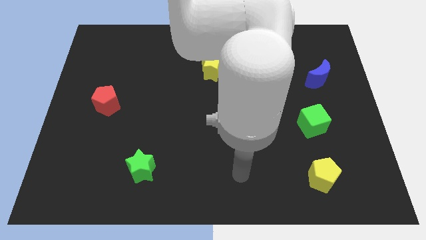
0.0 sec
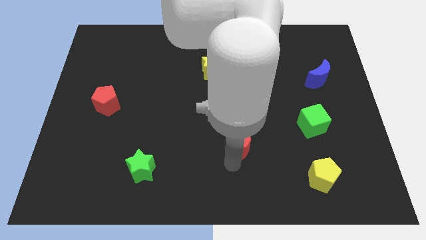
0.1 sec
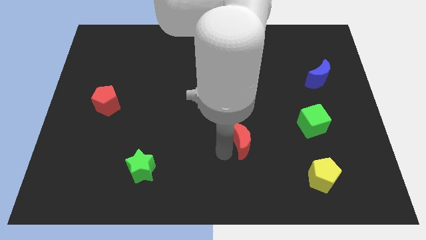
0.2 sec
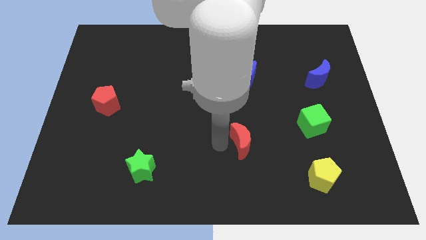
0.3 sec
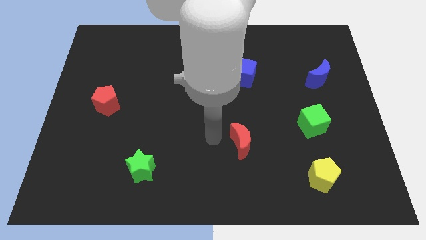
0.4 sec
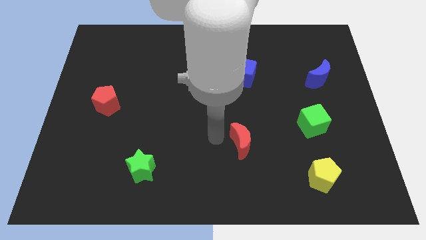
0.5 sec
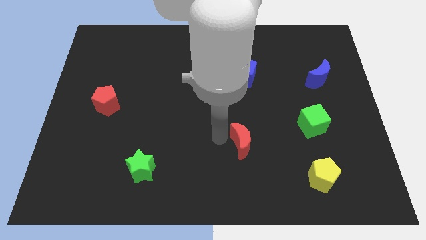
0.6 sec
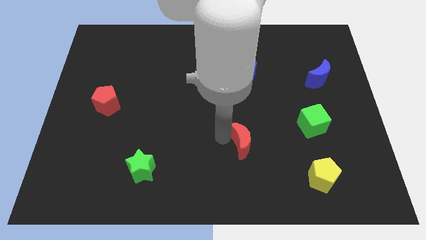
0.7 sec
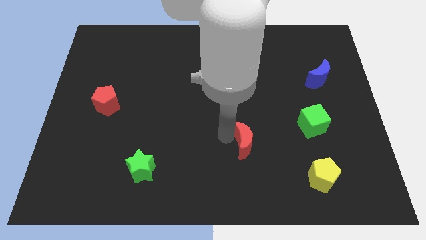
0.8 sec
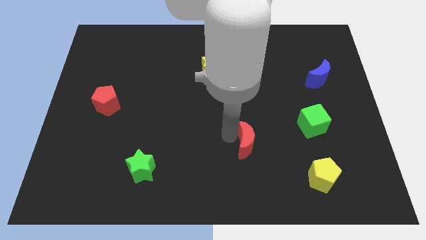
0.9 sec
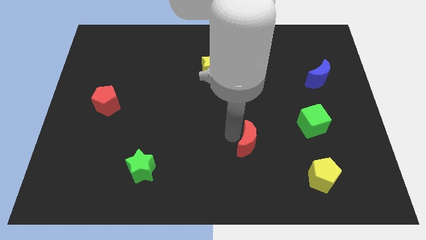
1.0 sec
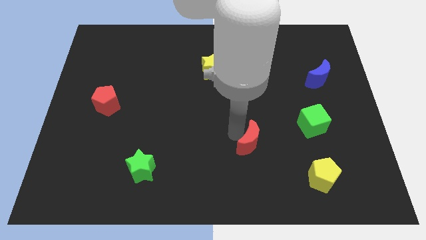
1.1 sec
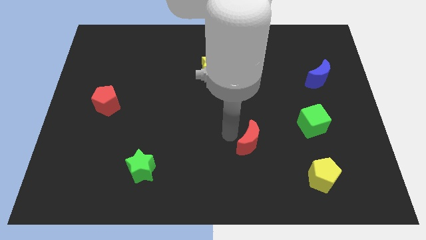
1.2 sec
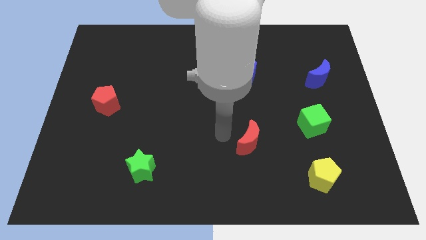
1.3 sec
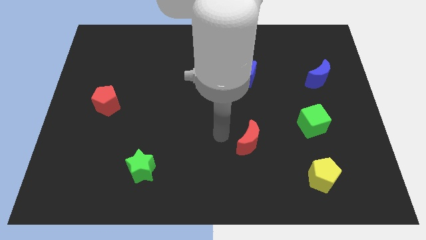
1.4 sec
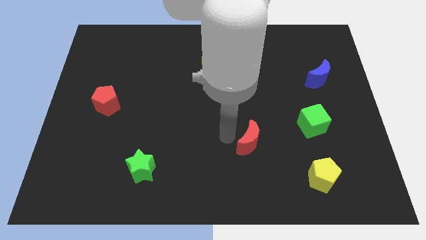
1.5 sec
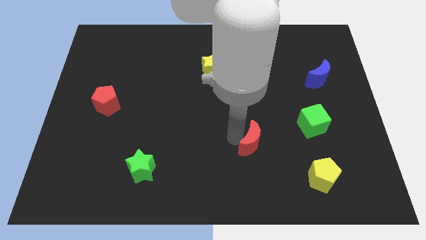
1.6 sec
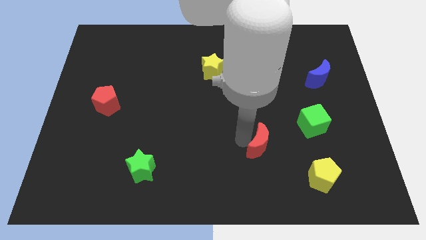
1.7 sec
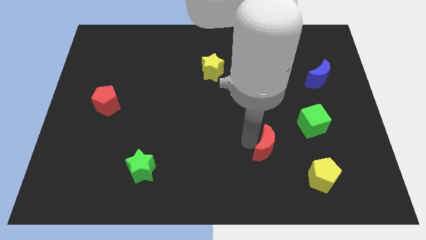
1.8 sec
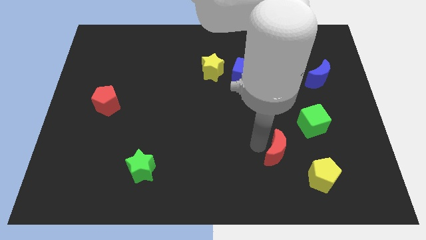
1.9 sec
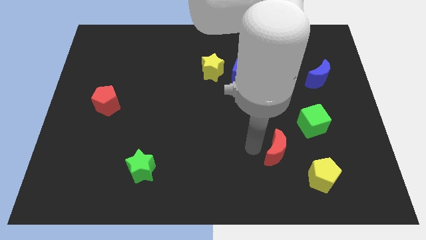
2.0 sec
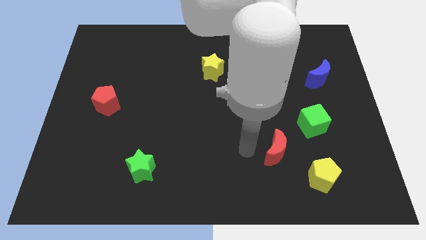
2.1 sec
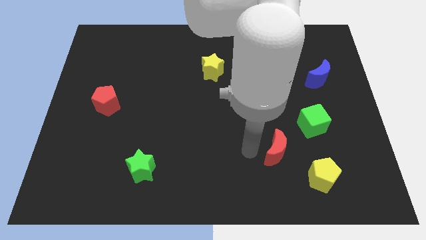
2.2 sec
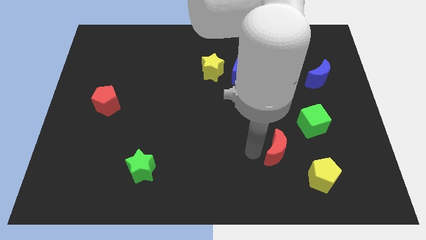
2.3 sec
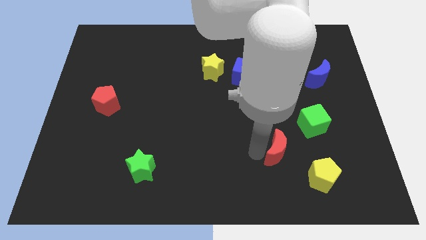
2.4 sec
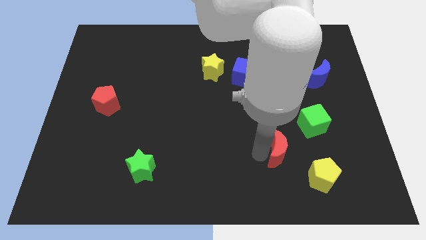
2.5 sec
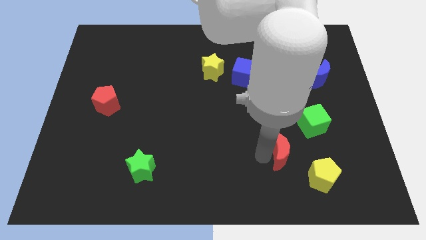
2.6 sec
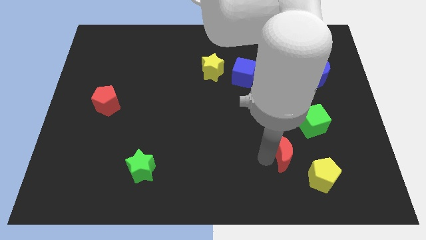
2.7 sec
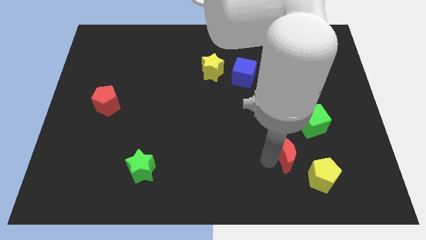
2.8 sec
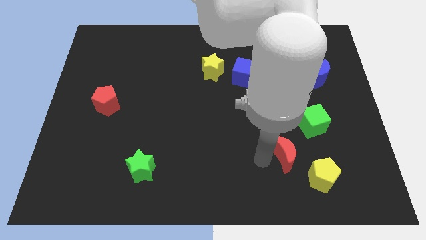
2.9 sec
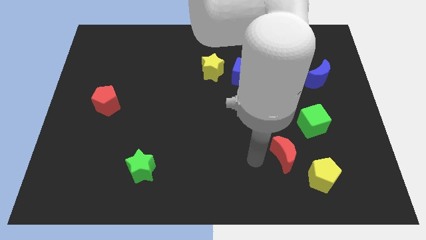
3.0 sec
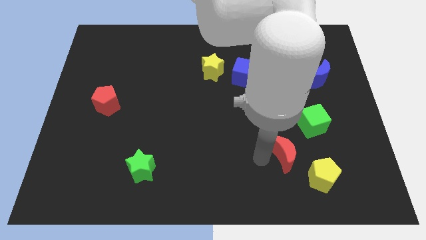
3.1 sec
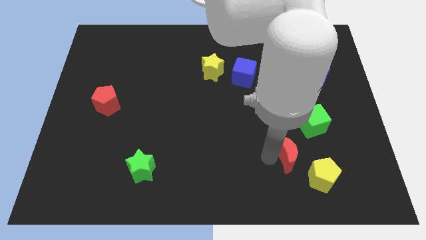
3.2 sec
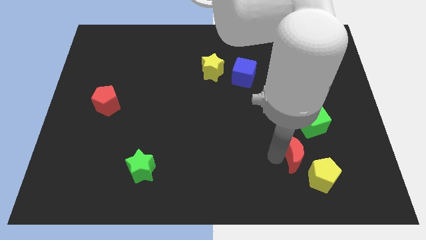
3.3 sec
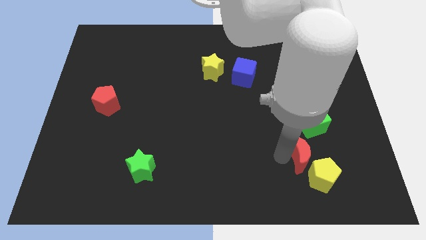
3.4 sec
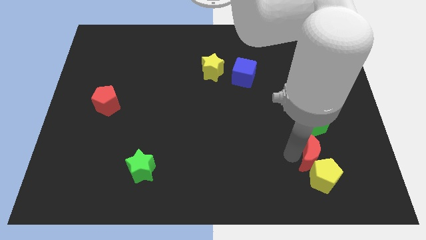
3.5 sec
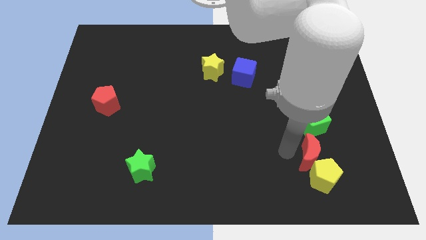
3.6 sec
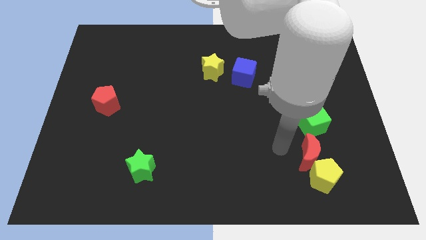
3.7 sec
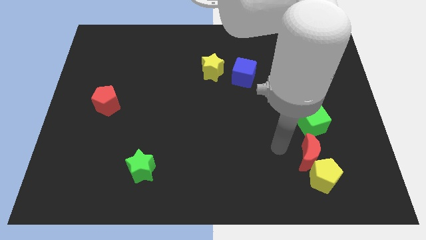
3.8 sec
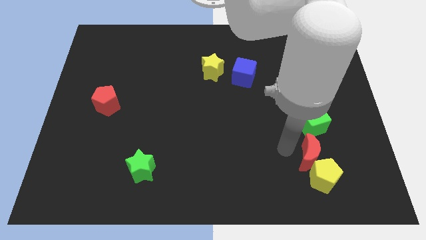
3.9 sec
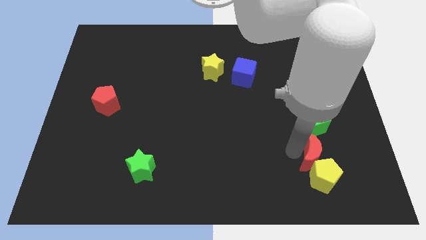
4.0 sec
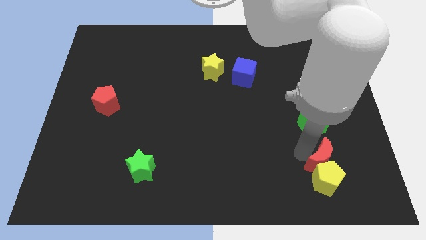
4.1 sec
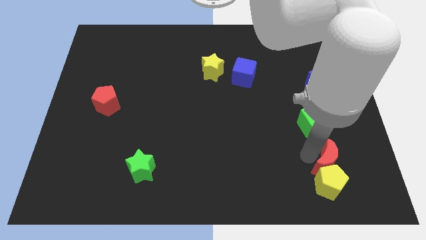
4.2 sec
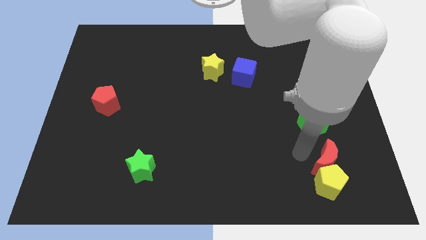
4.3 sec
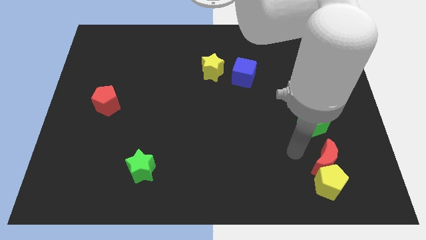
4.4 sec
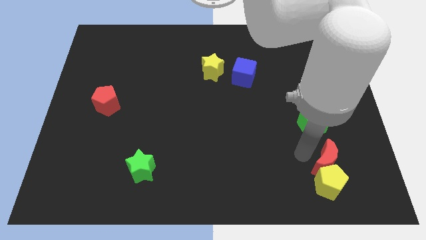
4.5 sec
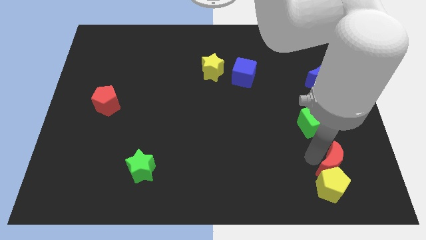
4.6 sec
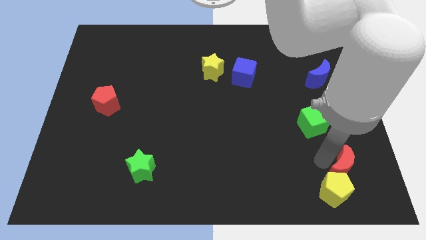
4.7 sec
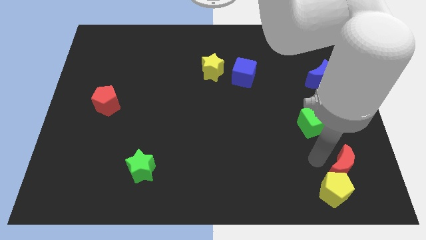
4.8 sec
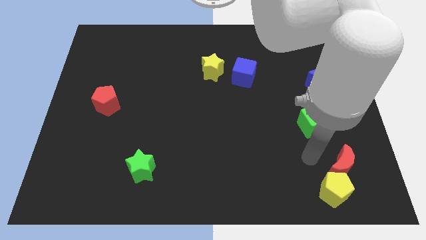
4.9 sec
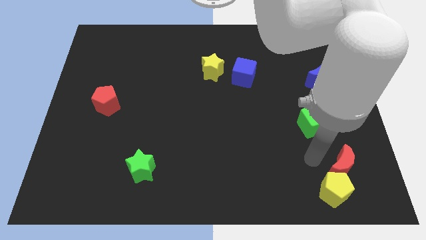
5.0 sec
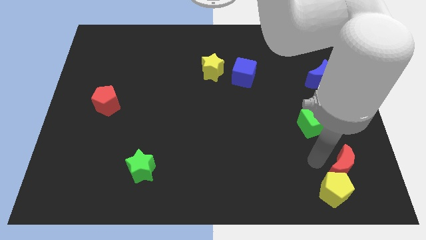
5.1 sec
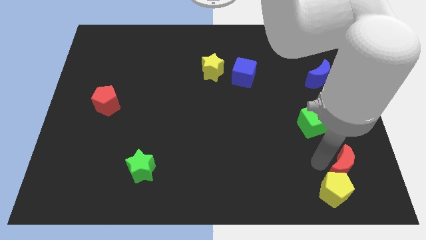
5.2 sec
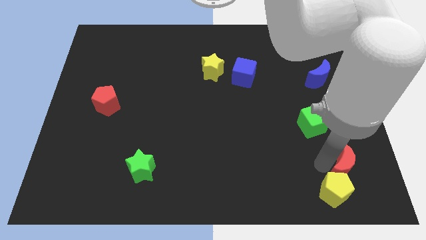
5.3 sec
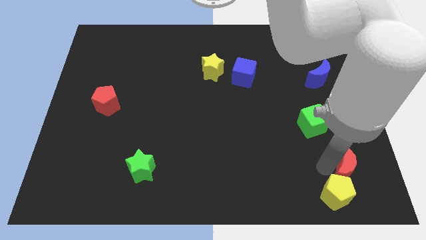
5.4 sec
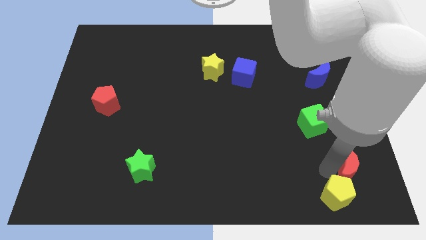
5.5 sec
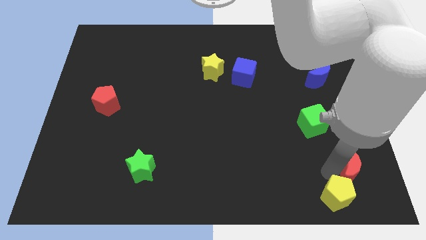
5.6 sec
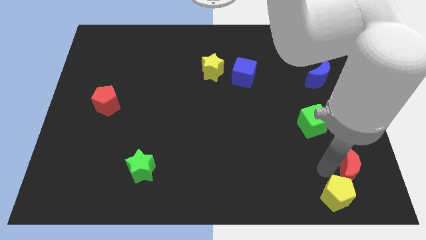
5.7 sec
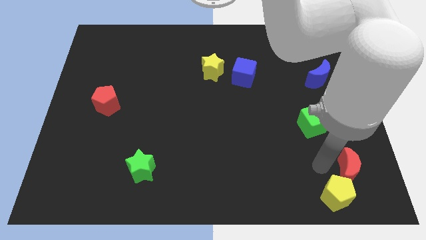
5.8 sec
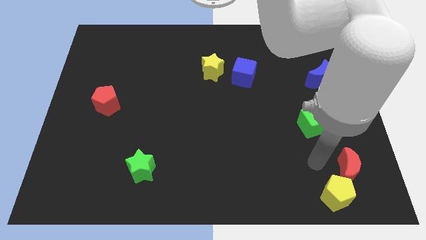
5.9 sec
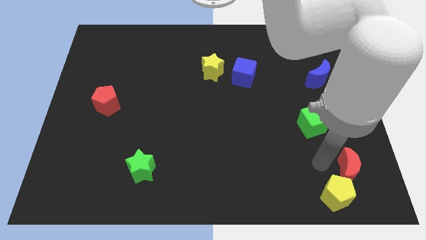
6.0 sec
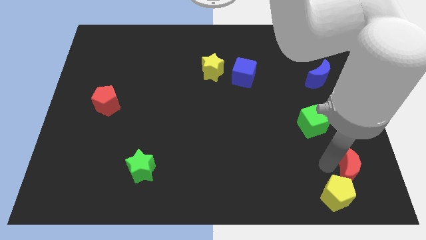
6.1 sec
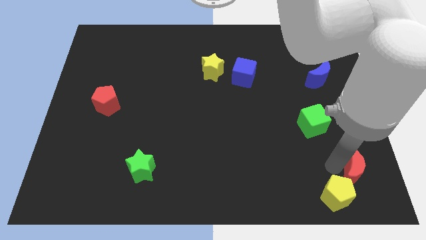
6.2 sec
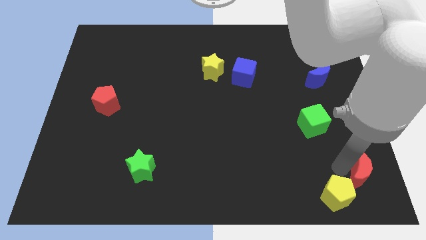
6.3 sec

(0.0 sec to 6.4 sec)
put the red moon to the bottom right corner
